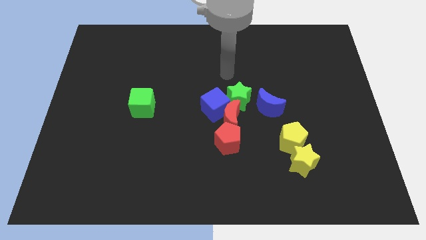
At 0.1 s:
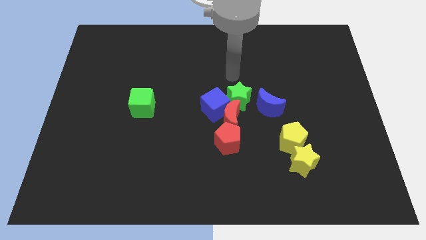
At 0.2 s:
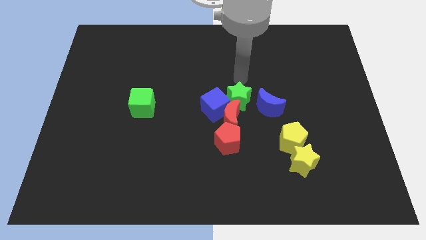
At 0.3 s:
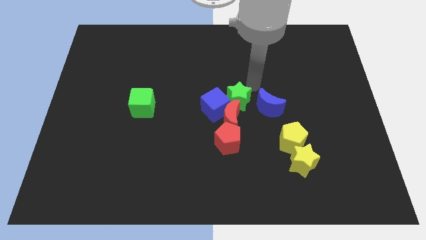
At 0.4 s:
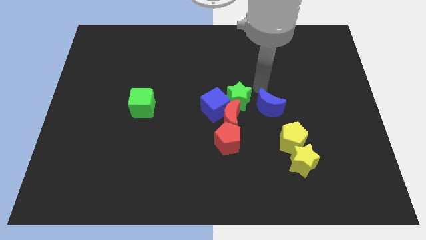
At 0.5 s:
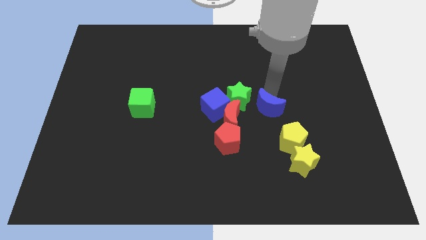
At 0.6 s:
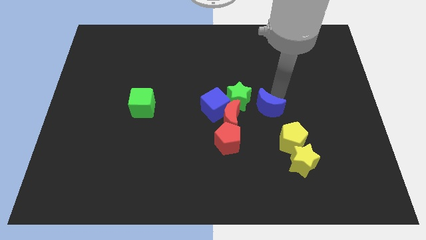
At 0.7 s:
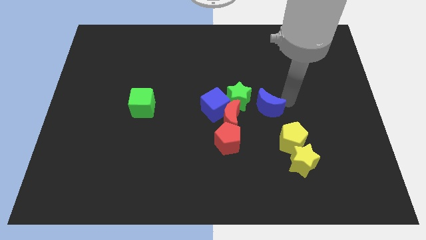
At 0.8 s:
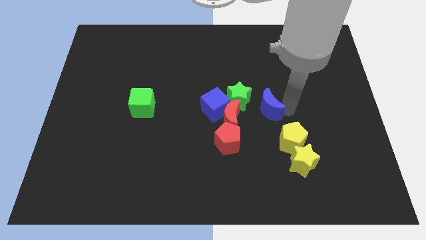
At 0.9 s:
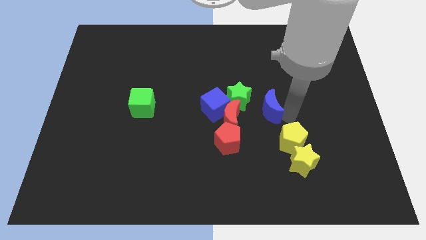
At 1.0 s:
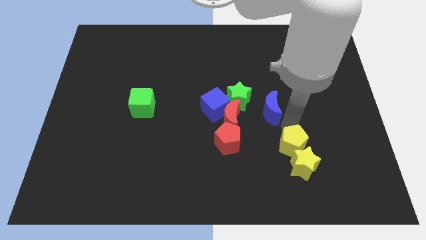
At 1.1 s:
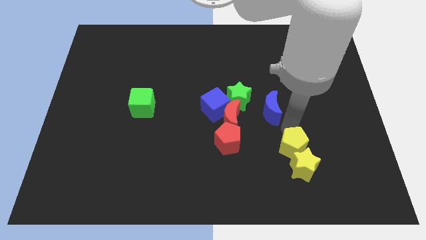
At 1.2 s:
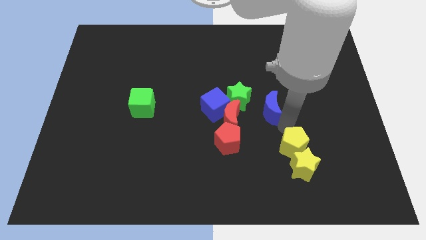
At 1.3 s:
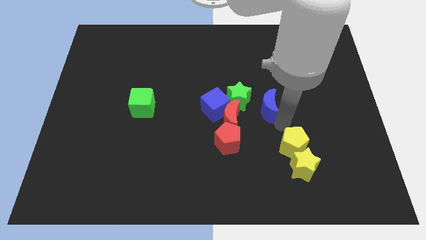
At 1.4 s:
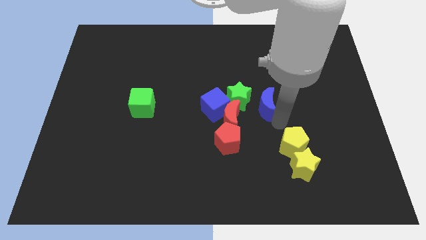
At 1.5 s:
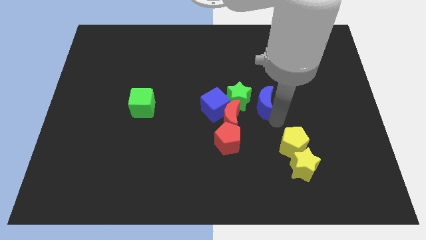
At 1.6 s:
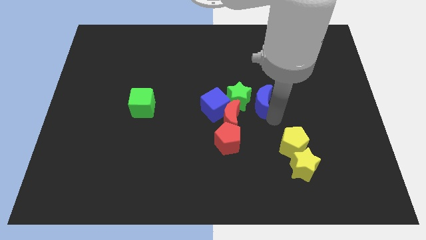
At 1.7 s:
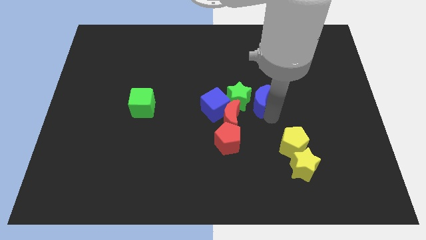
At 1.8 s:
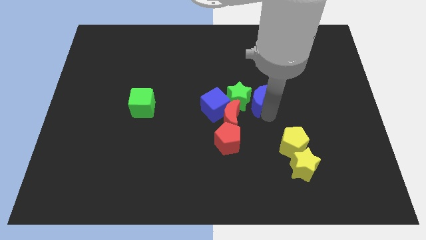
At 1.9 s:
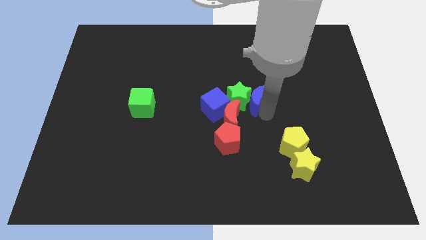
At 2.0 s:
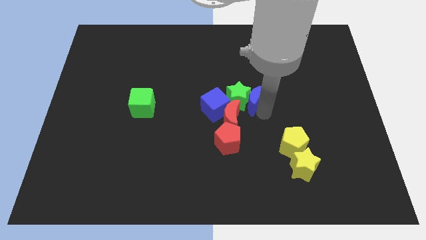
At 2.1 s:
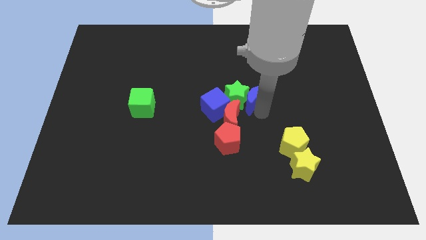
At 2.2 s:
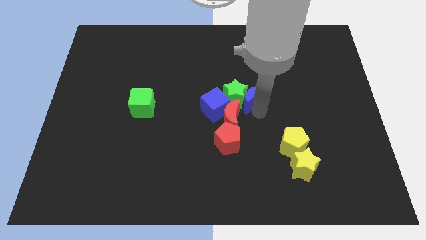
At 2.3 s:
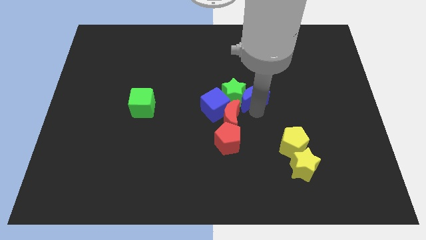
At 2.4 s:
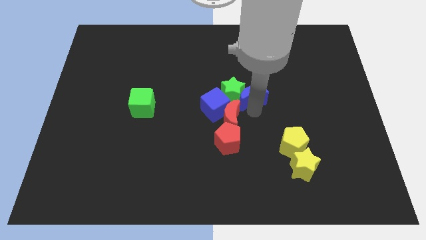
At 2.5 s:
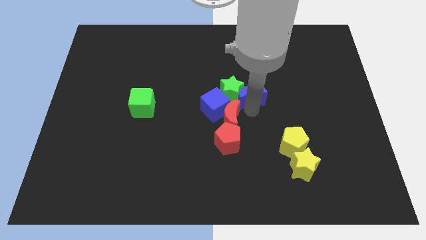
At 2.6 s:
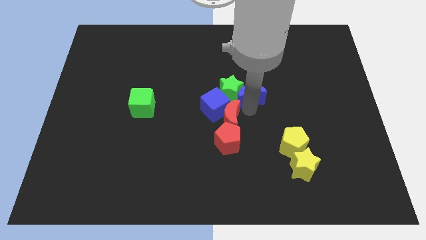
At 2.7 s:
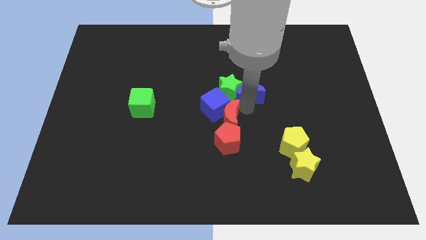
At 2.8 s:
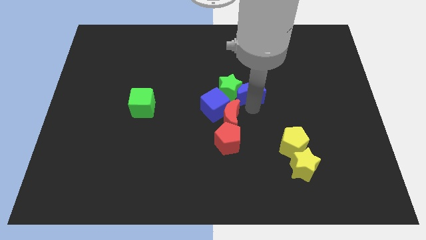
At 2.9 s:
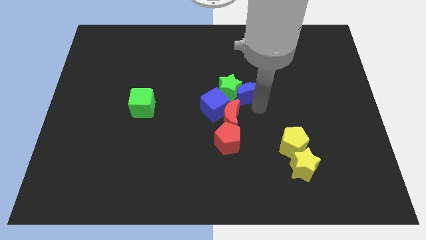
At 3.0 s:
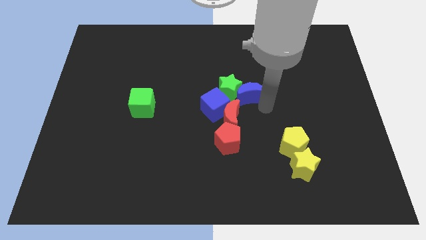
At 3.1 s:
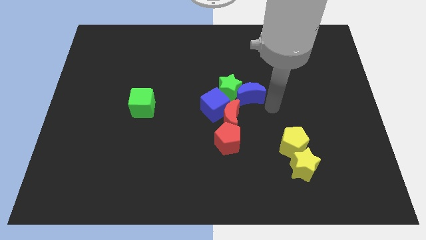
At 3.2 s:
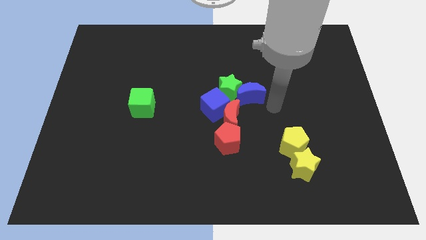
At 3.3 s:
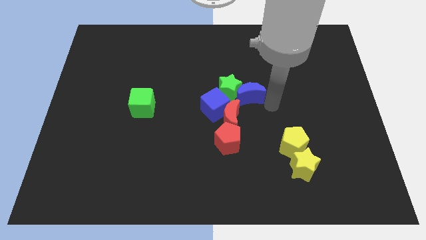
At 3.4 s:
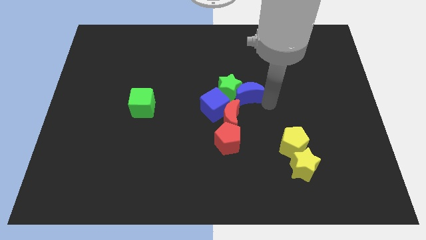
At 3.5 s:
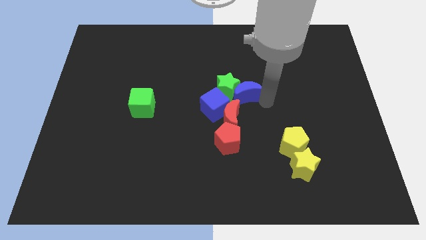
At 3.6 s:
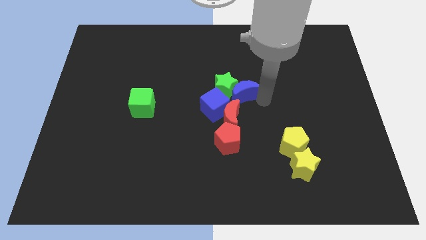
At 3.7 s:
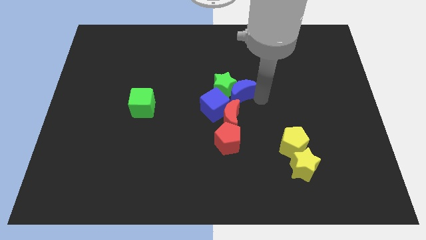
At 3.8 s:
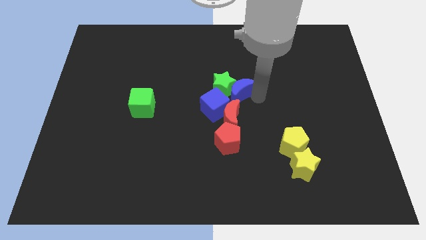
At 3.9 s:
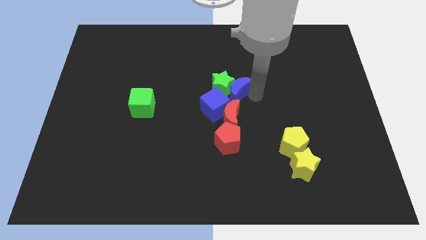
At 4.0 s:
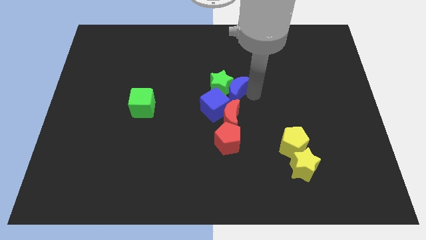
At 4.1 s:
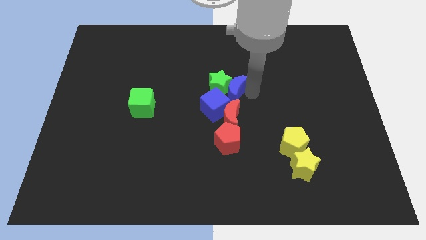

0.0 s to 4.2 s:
move the blue moon to the left a little bit

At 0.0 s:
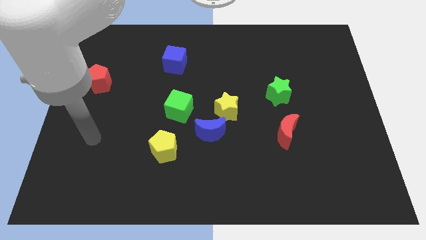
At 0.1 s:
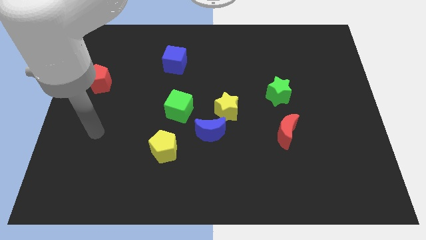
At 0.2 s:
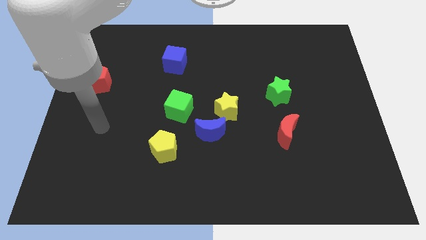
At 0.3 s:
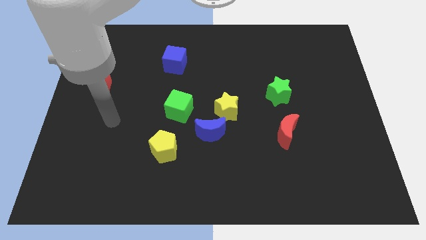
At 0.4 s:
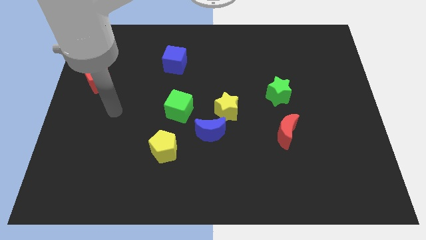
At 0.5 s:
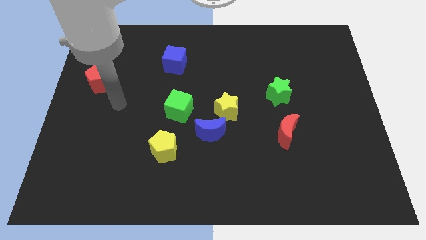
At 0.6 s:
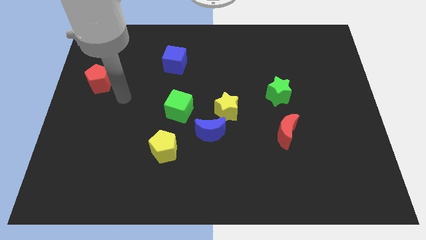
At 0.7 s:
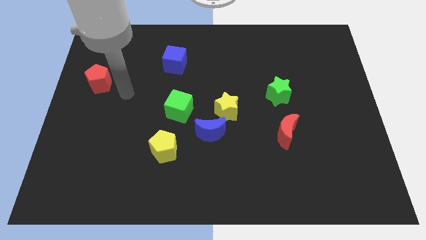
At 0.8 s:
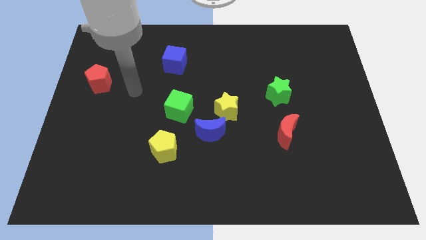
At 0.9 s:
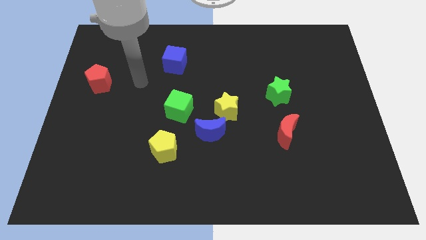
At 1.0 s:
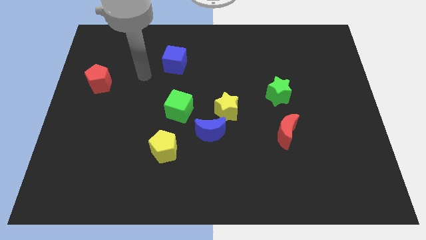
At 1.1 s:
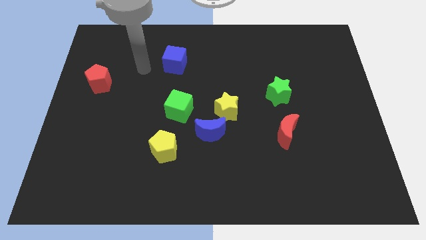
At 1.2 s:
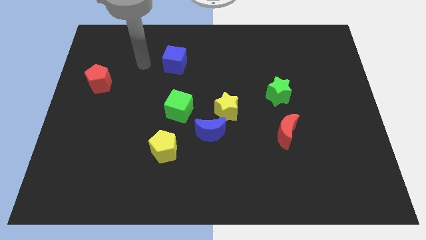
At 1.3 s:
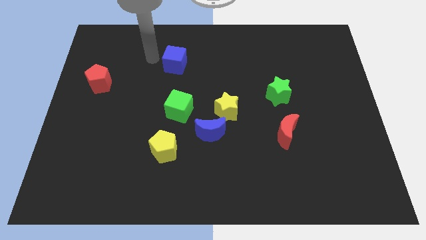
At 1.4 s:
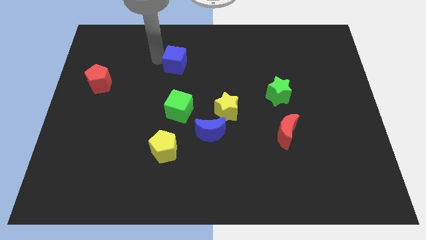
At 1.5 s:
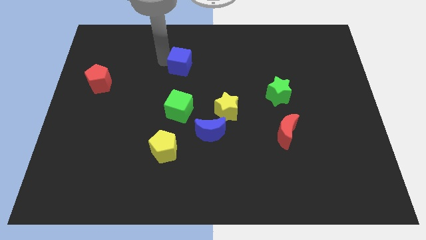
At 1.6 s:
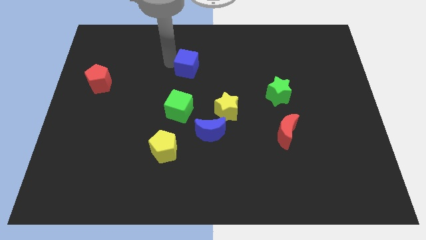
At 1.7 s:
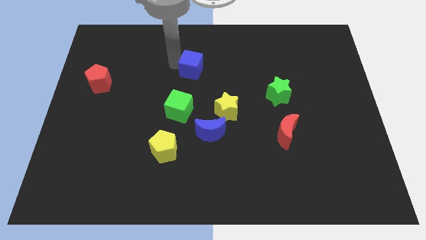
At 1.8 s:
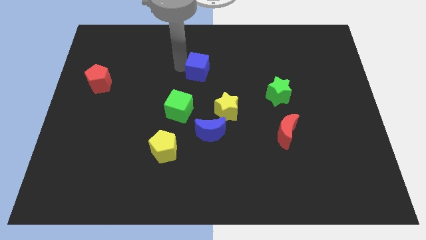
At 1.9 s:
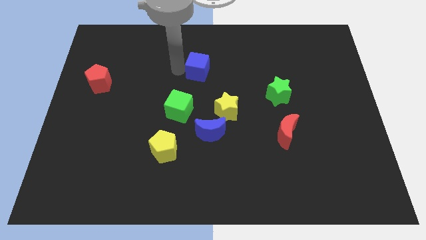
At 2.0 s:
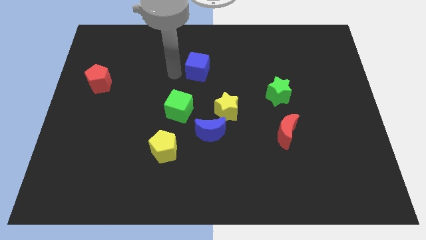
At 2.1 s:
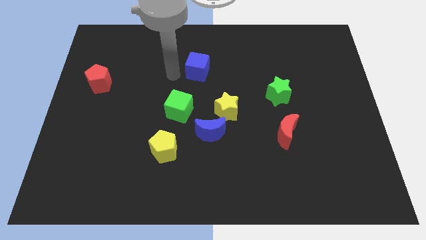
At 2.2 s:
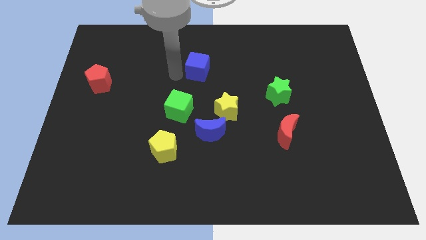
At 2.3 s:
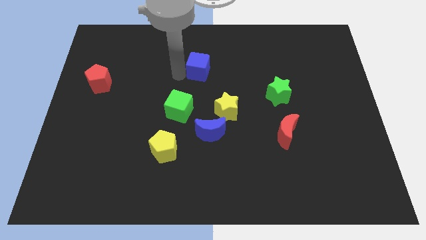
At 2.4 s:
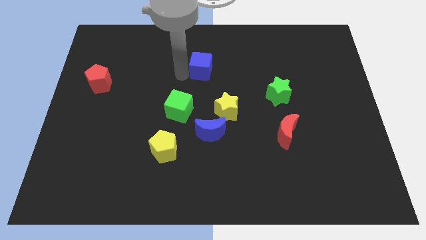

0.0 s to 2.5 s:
slightly push the blue cube right

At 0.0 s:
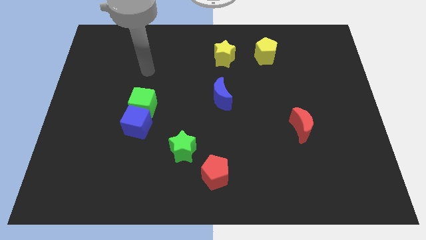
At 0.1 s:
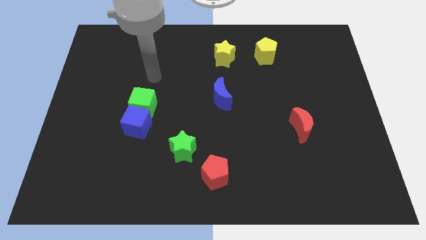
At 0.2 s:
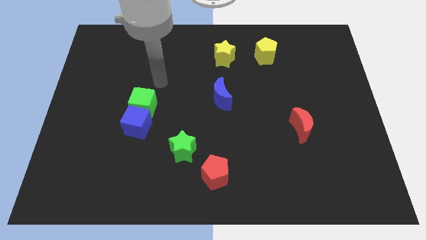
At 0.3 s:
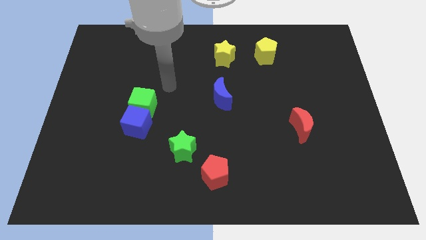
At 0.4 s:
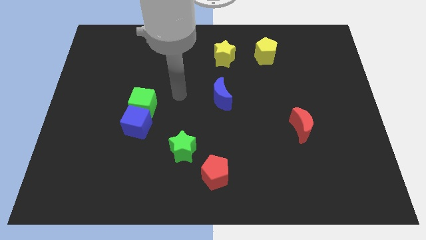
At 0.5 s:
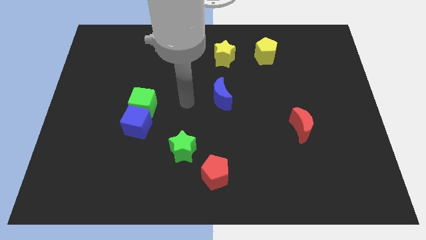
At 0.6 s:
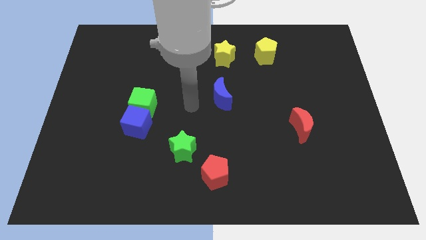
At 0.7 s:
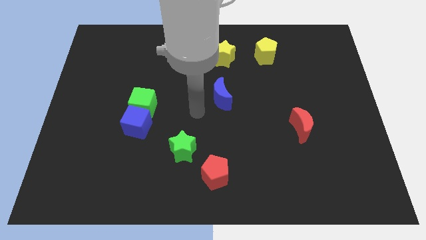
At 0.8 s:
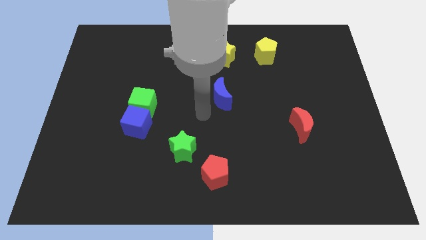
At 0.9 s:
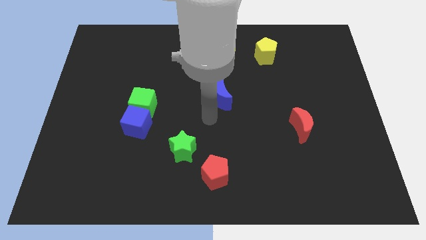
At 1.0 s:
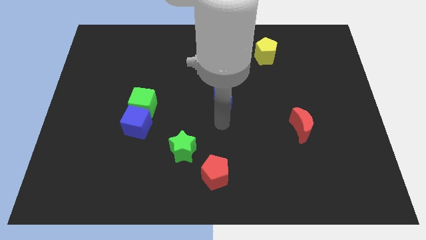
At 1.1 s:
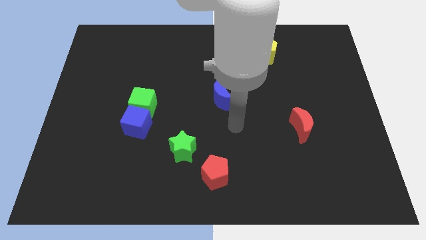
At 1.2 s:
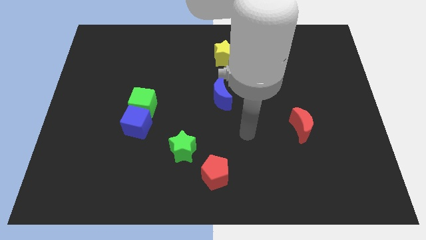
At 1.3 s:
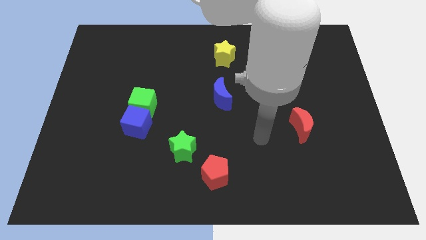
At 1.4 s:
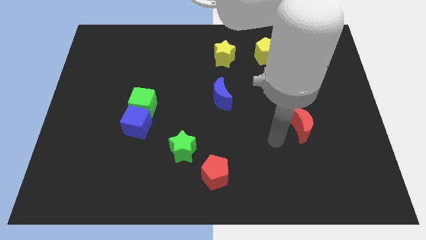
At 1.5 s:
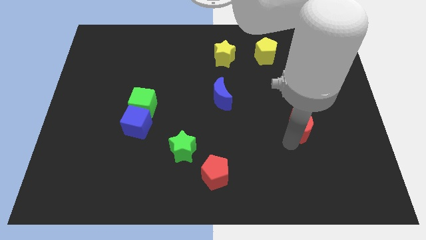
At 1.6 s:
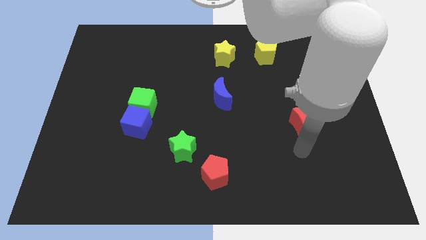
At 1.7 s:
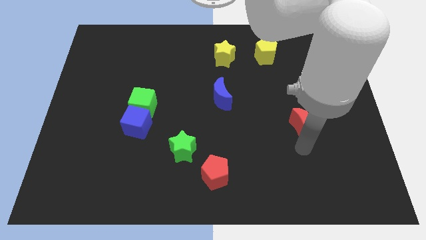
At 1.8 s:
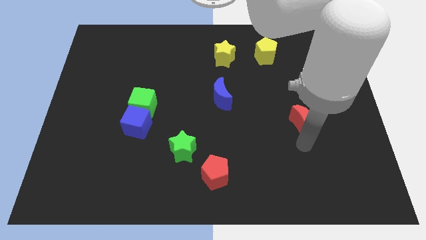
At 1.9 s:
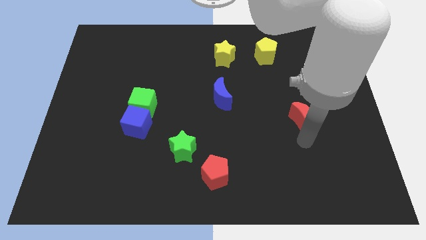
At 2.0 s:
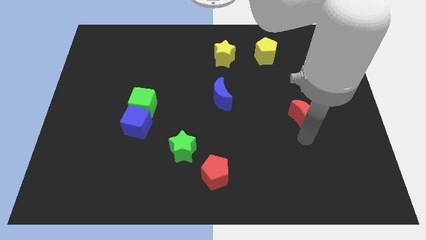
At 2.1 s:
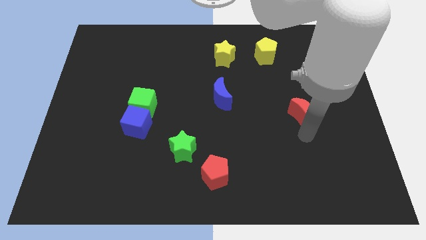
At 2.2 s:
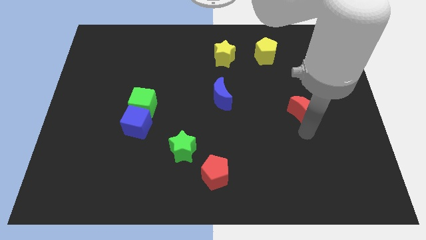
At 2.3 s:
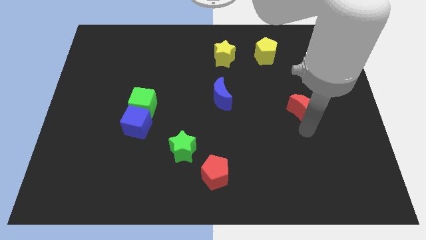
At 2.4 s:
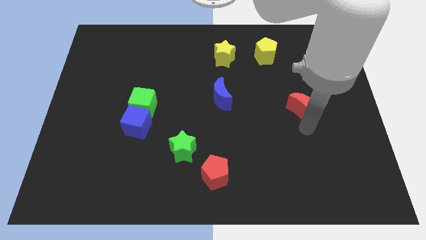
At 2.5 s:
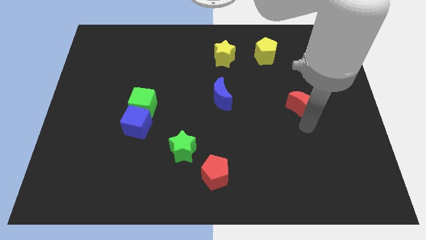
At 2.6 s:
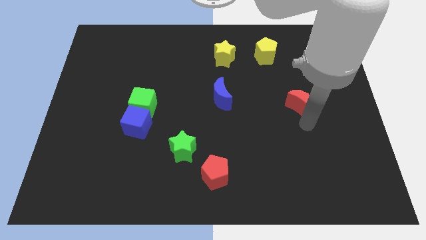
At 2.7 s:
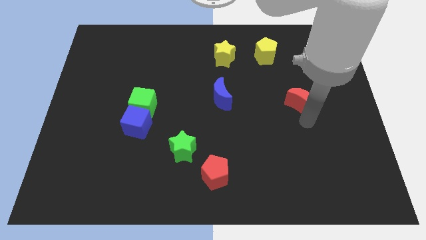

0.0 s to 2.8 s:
push the red moon upwards a little bit
